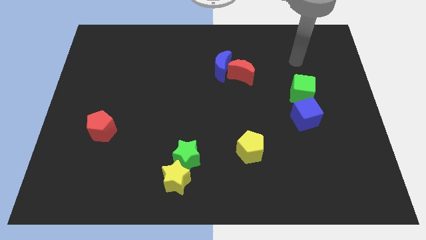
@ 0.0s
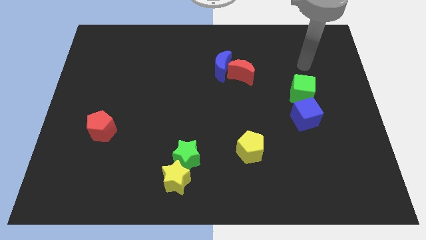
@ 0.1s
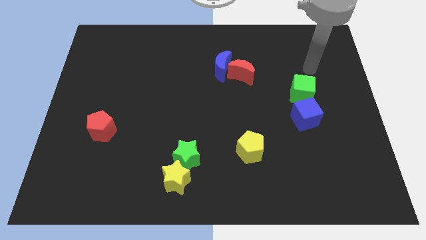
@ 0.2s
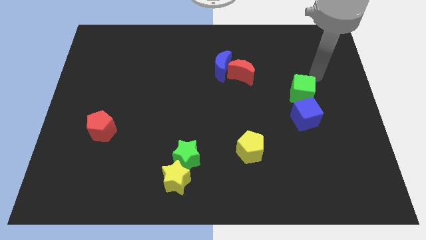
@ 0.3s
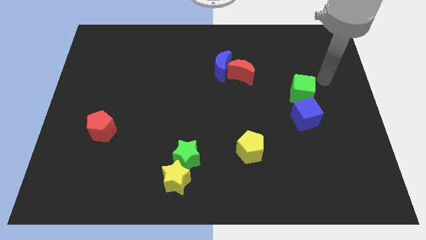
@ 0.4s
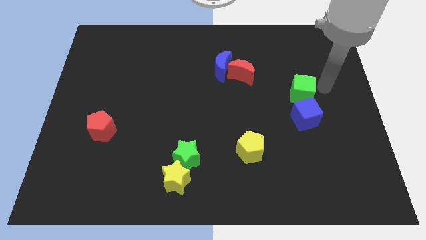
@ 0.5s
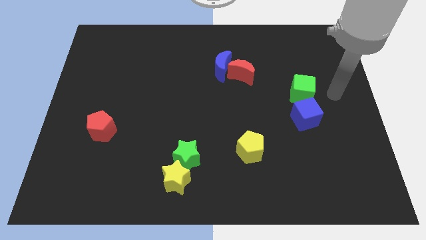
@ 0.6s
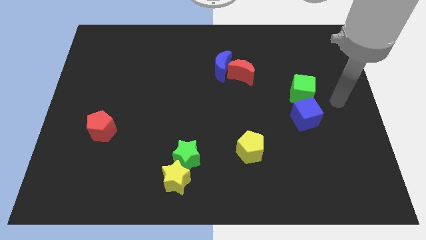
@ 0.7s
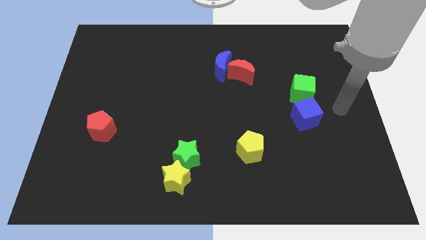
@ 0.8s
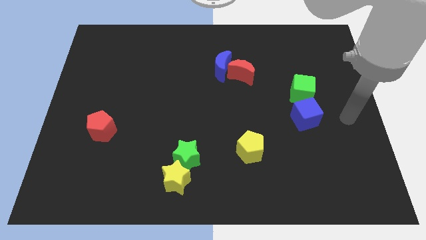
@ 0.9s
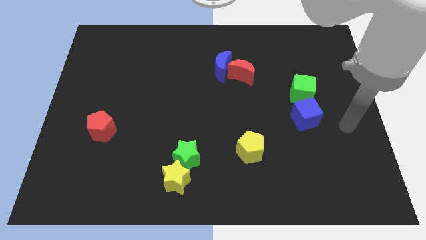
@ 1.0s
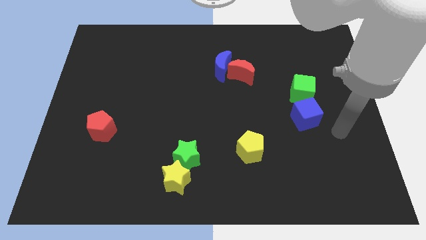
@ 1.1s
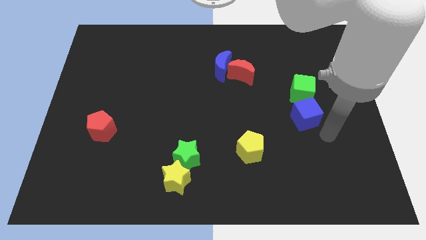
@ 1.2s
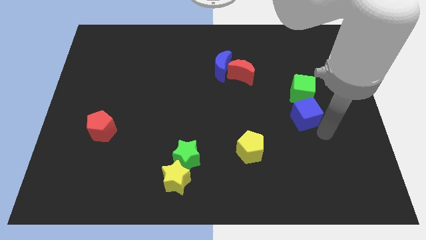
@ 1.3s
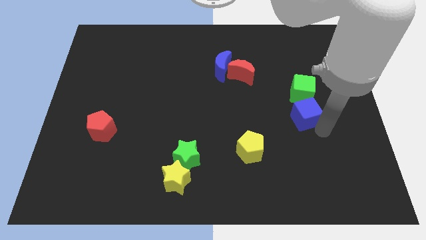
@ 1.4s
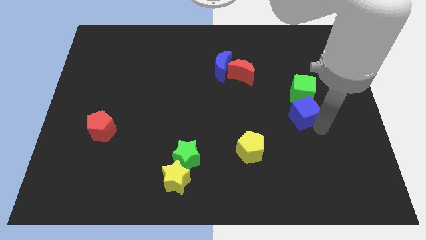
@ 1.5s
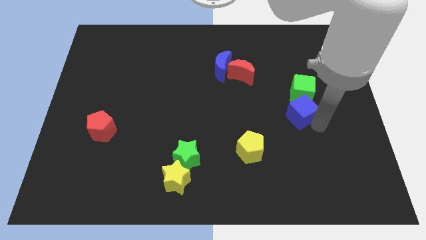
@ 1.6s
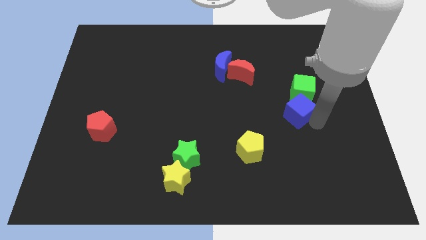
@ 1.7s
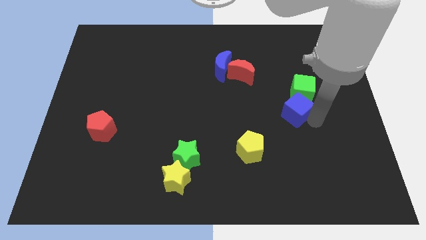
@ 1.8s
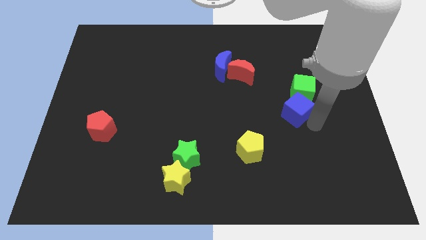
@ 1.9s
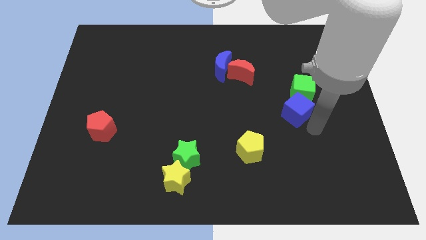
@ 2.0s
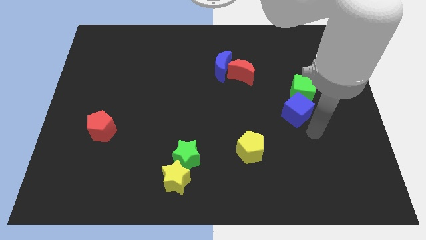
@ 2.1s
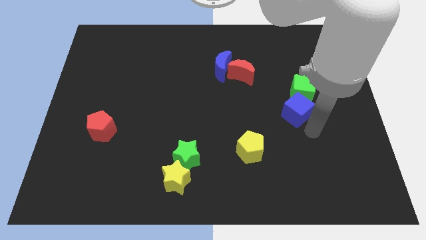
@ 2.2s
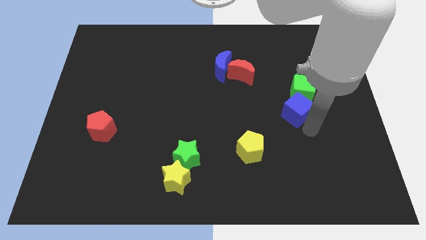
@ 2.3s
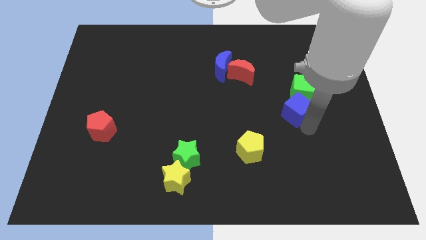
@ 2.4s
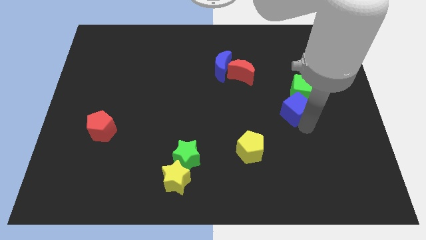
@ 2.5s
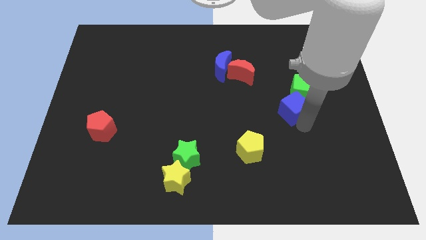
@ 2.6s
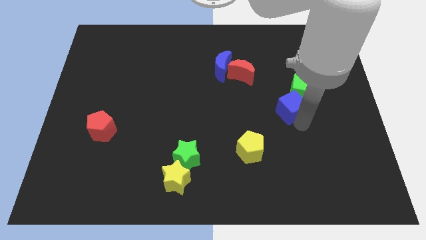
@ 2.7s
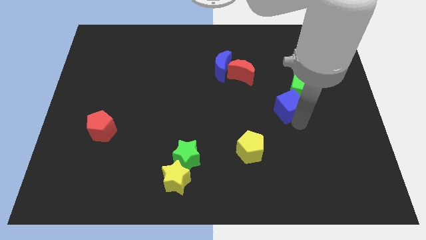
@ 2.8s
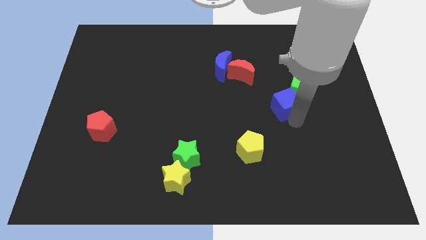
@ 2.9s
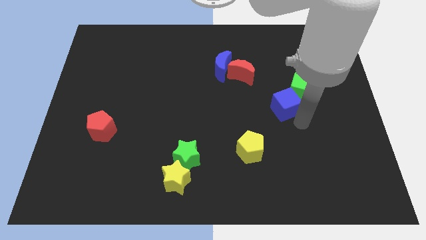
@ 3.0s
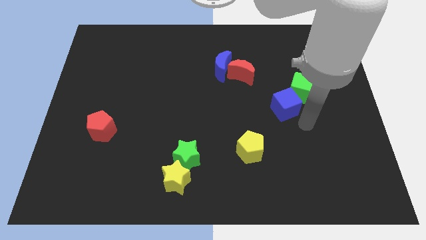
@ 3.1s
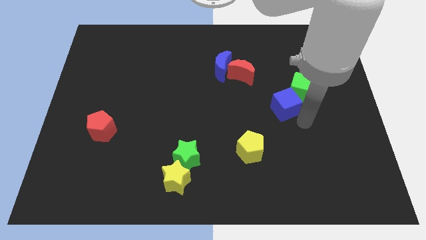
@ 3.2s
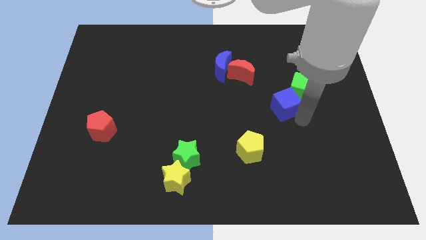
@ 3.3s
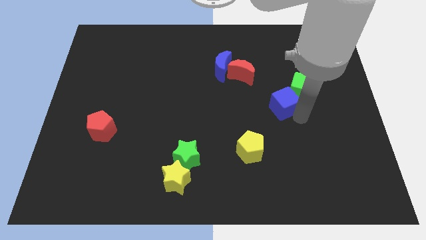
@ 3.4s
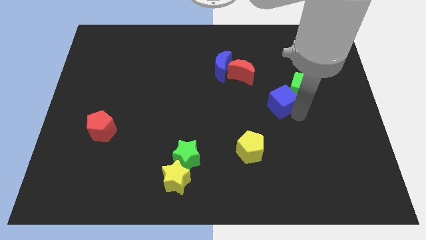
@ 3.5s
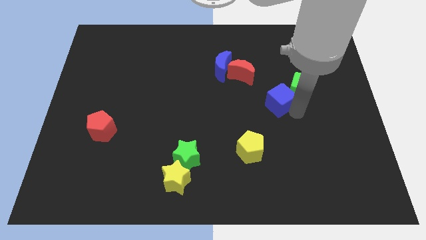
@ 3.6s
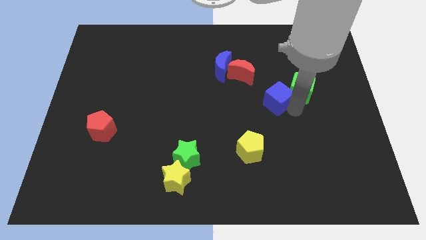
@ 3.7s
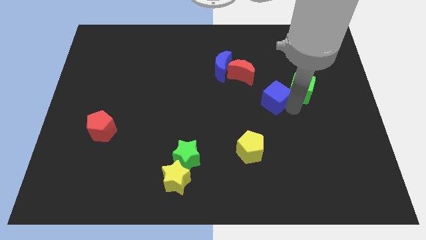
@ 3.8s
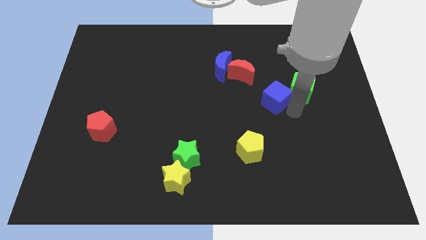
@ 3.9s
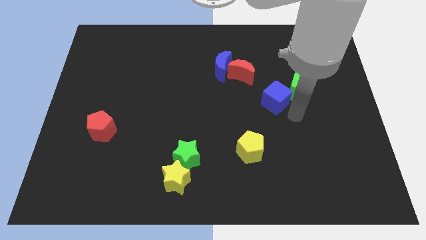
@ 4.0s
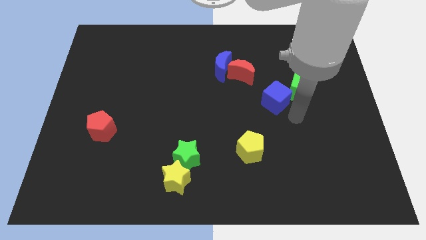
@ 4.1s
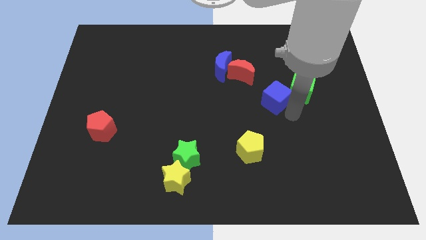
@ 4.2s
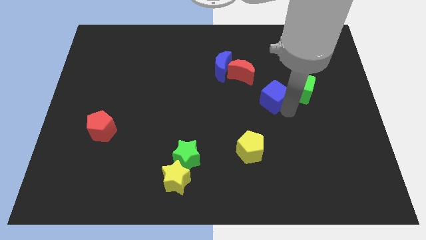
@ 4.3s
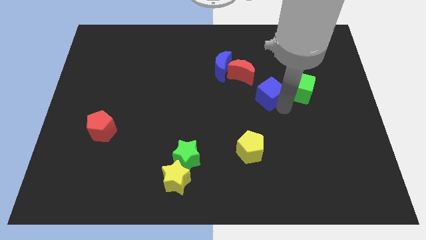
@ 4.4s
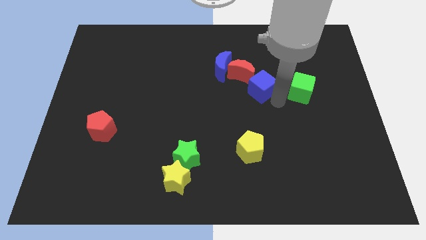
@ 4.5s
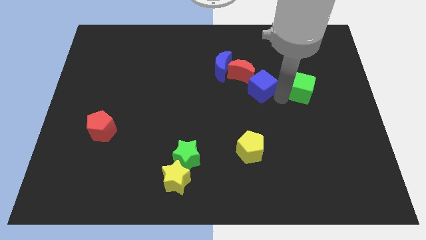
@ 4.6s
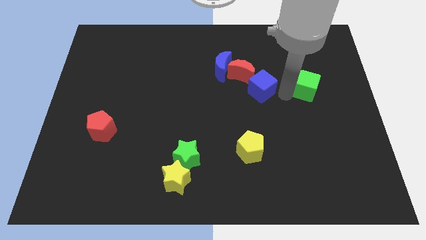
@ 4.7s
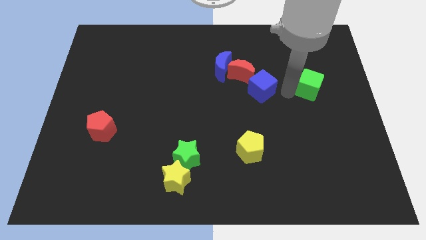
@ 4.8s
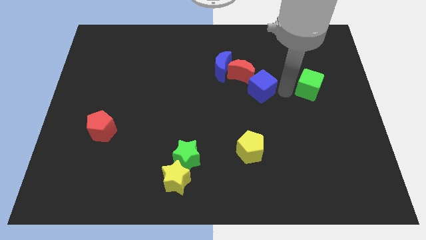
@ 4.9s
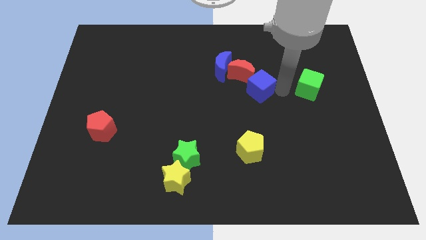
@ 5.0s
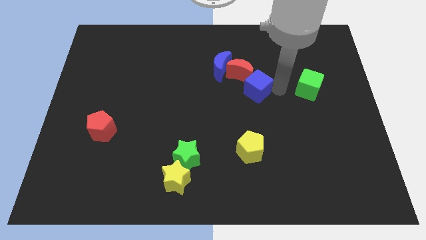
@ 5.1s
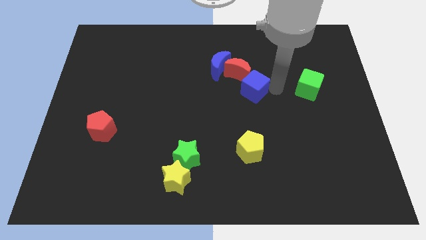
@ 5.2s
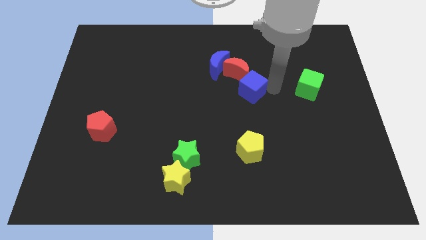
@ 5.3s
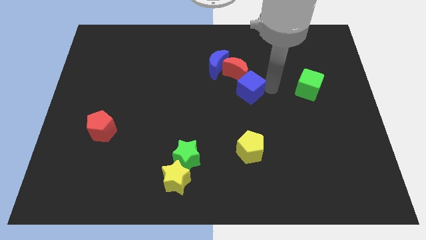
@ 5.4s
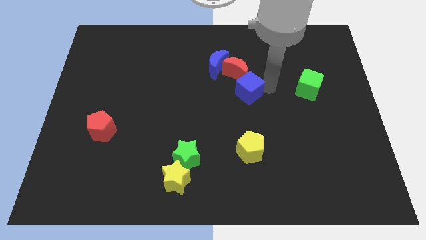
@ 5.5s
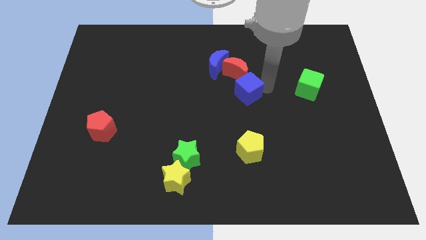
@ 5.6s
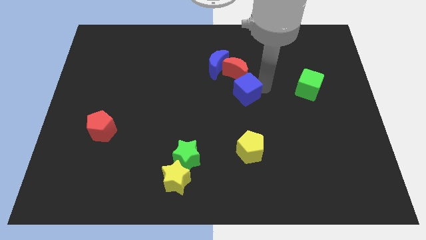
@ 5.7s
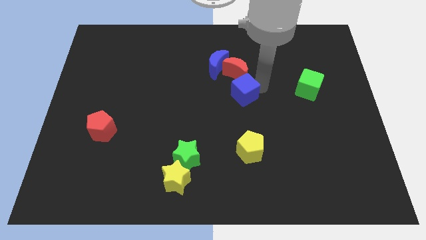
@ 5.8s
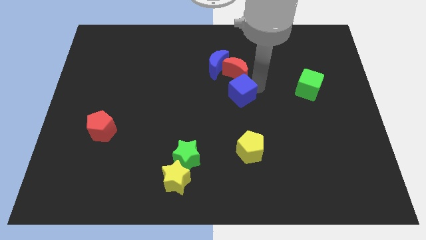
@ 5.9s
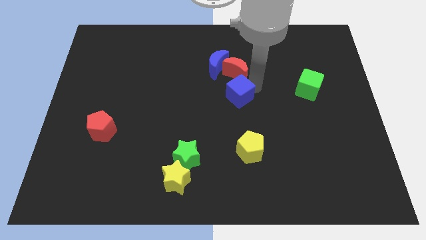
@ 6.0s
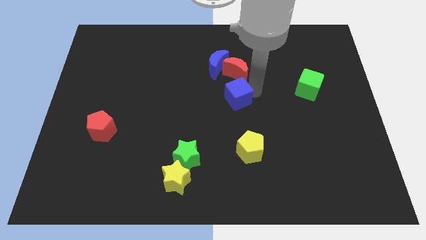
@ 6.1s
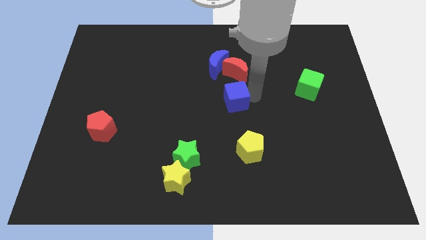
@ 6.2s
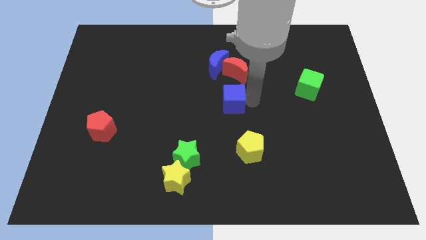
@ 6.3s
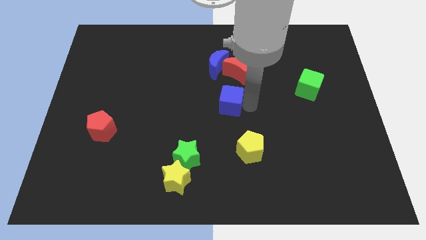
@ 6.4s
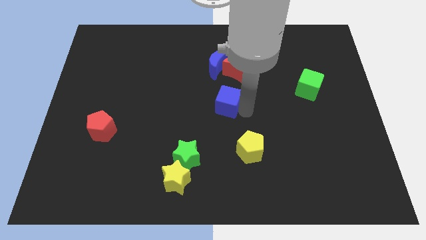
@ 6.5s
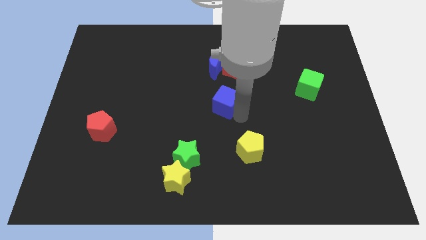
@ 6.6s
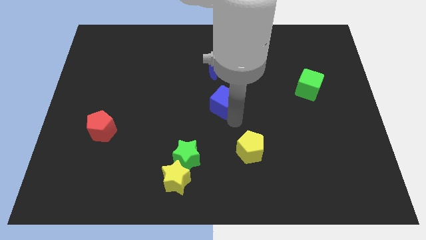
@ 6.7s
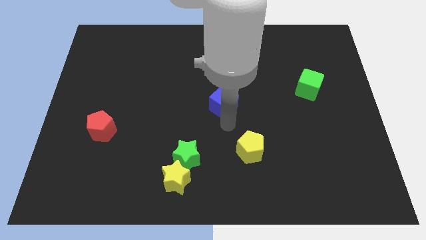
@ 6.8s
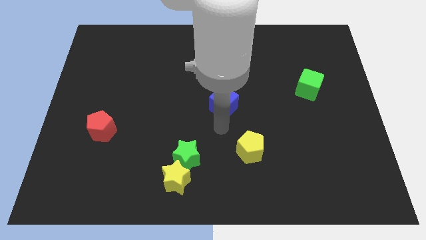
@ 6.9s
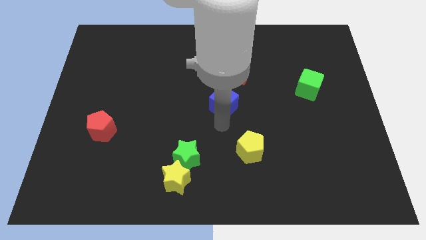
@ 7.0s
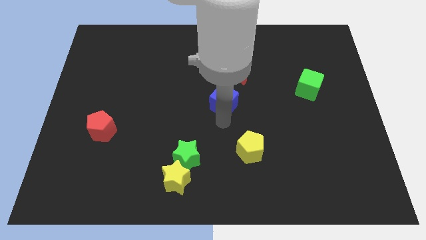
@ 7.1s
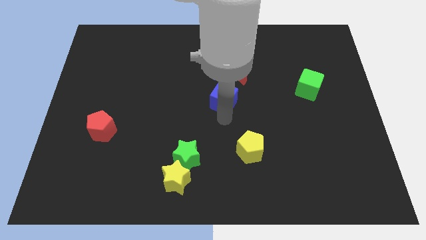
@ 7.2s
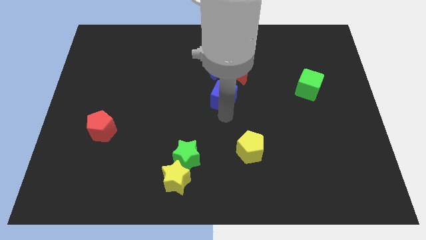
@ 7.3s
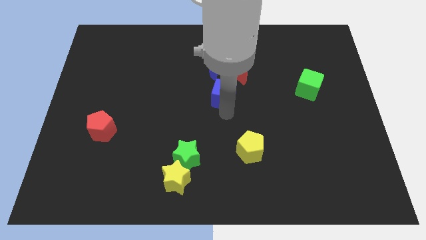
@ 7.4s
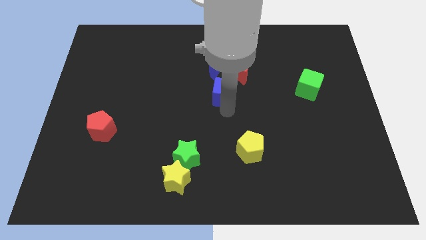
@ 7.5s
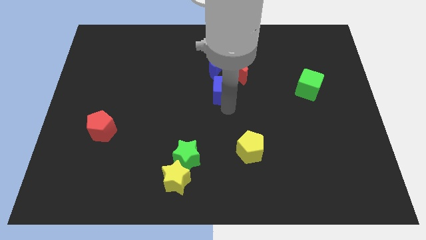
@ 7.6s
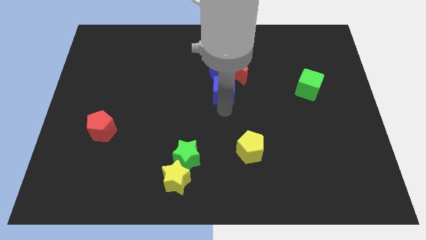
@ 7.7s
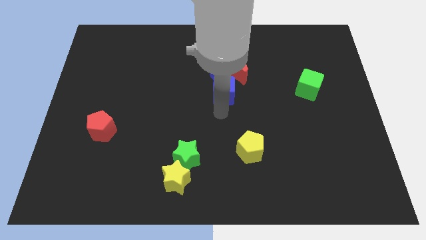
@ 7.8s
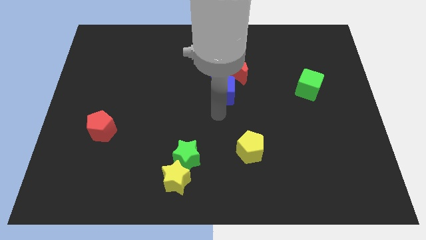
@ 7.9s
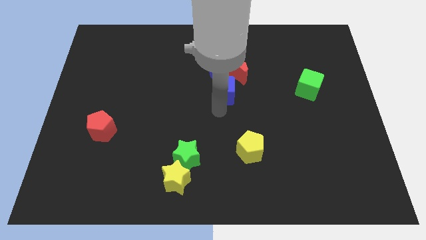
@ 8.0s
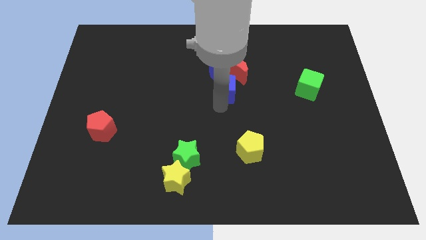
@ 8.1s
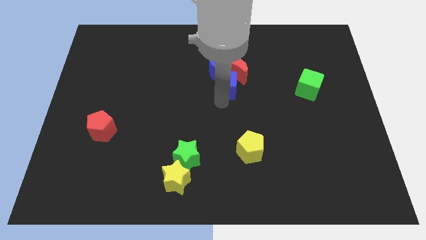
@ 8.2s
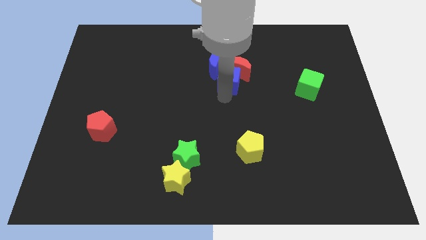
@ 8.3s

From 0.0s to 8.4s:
move the blue cube next to the blue moon
